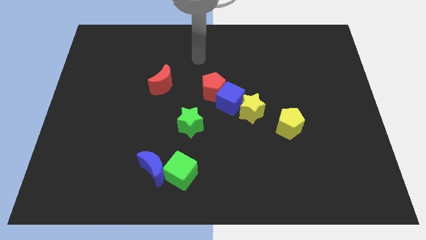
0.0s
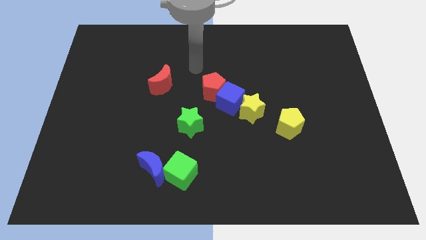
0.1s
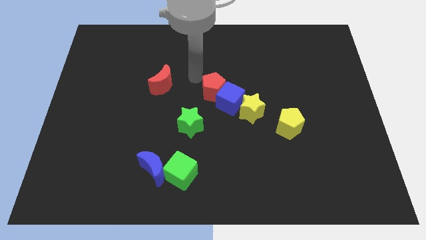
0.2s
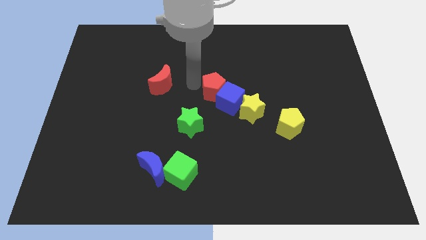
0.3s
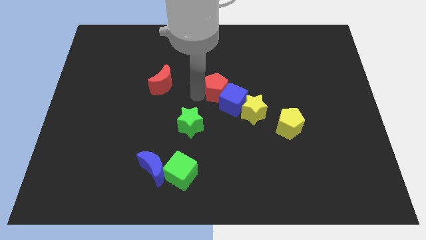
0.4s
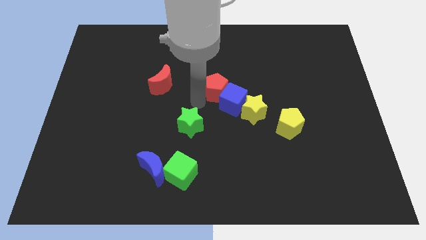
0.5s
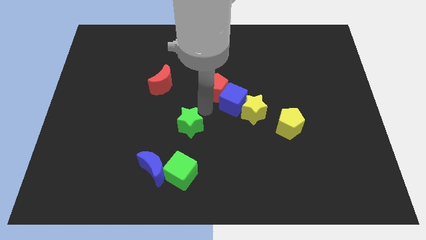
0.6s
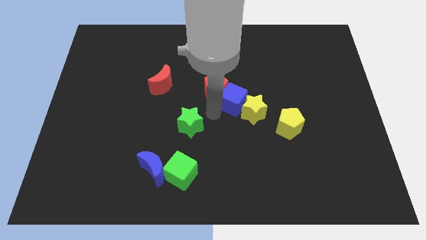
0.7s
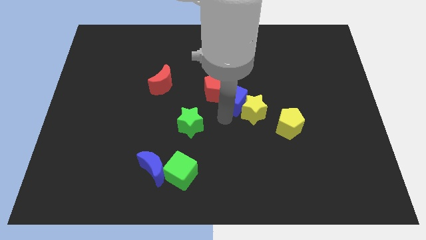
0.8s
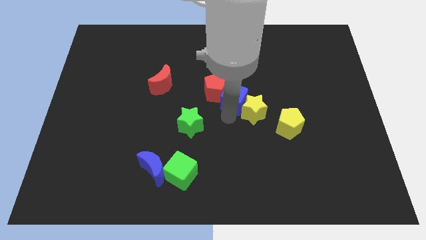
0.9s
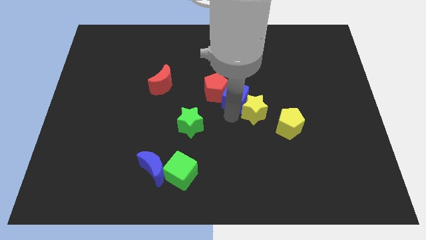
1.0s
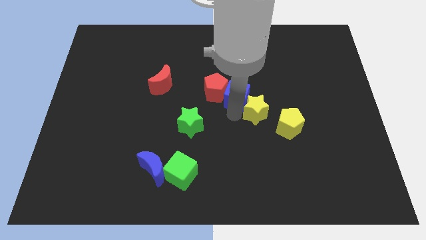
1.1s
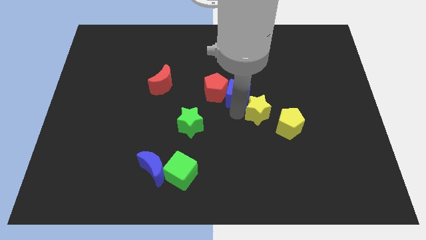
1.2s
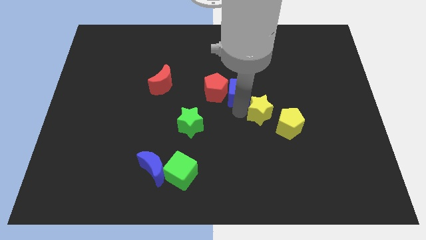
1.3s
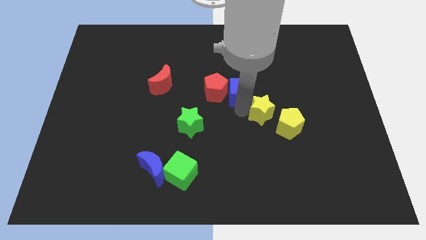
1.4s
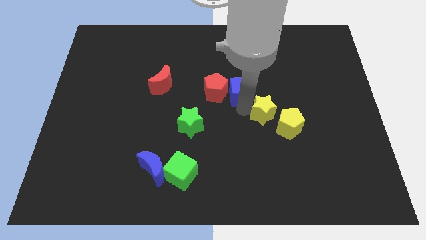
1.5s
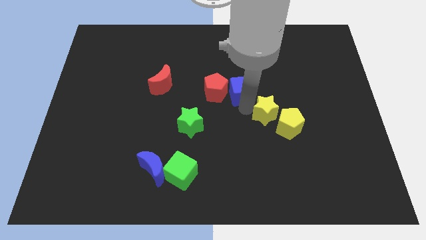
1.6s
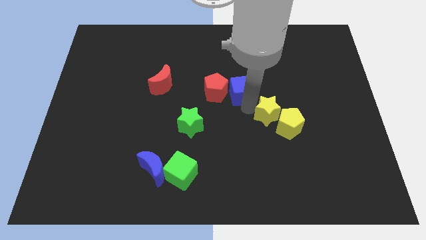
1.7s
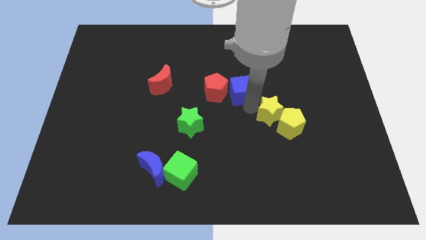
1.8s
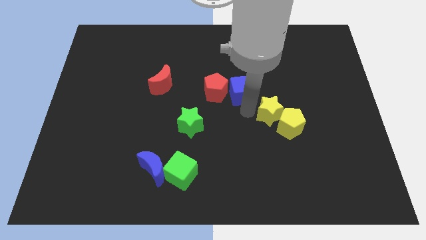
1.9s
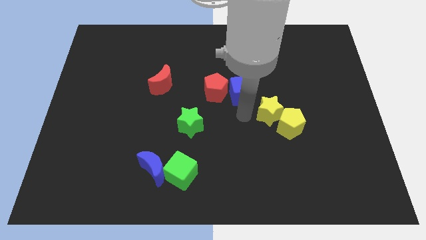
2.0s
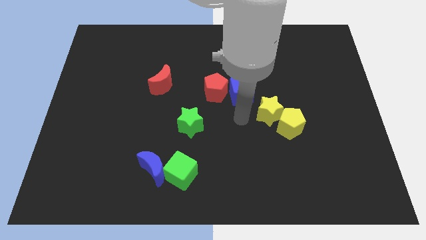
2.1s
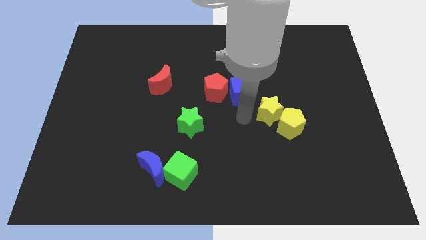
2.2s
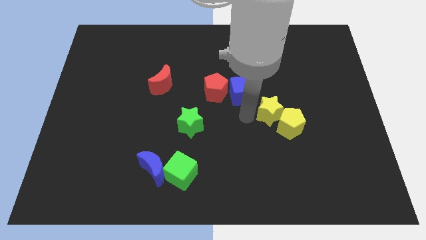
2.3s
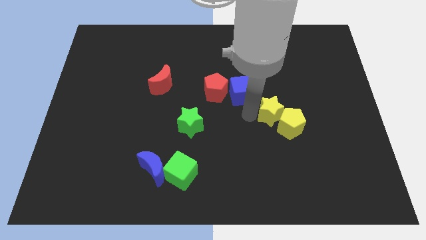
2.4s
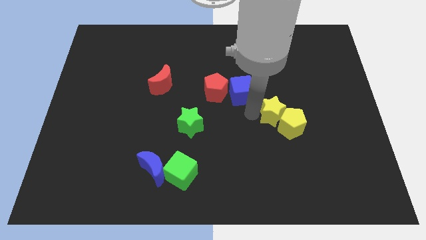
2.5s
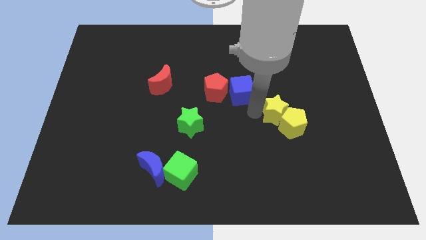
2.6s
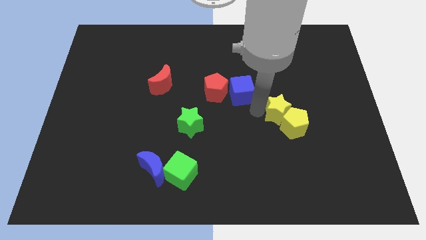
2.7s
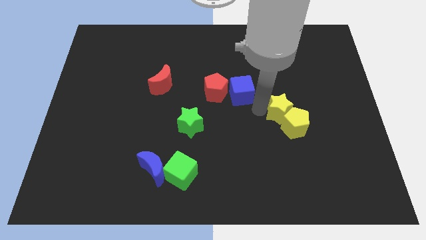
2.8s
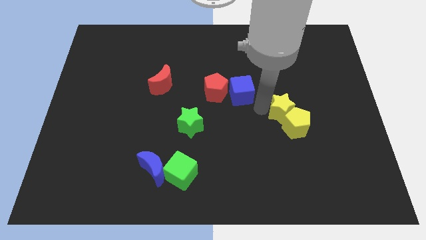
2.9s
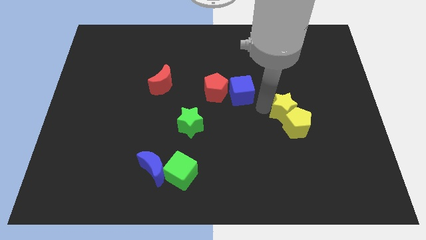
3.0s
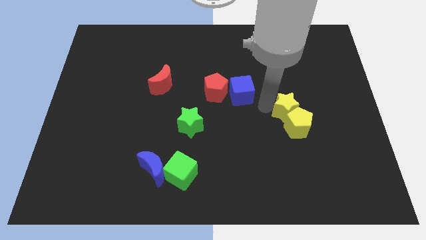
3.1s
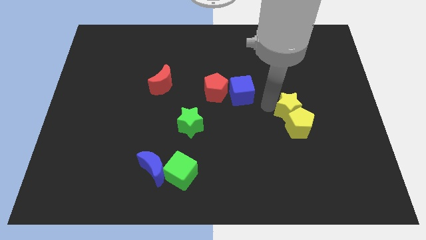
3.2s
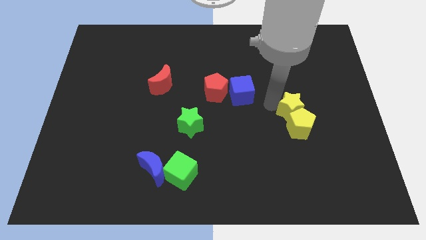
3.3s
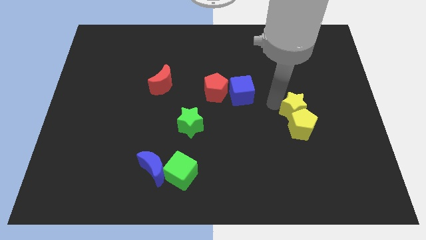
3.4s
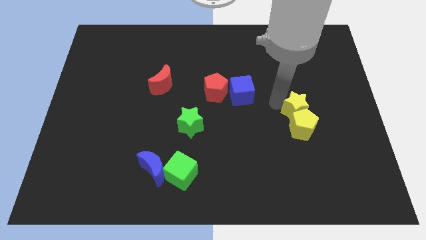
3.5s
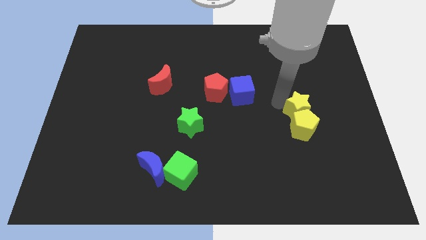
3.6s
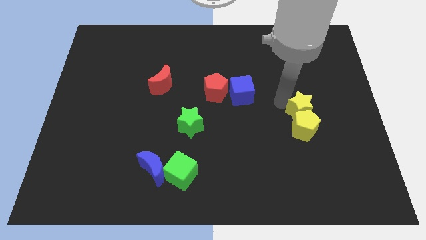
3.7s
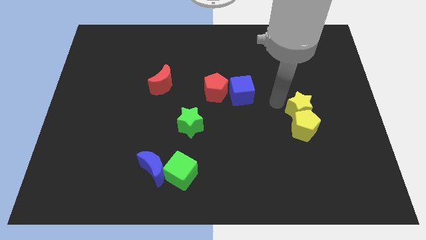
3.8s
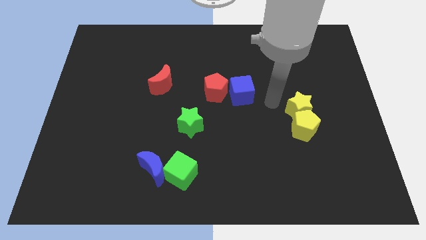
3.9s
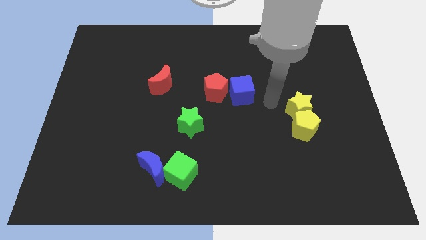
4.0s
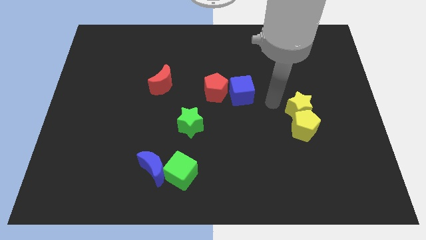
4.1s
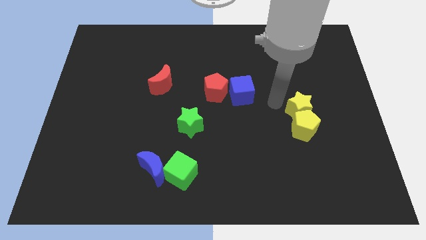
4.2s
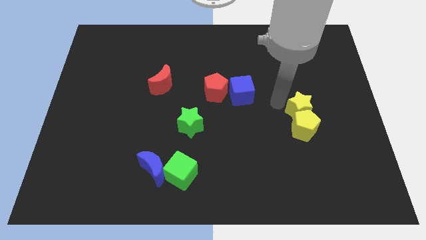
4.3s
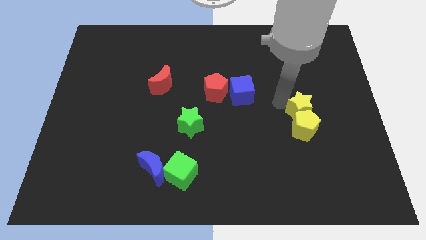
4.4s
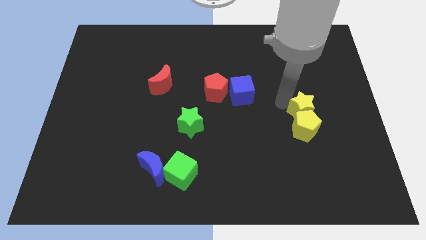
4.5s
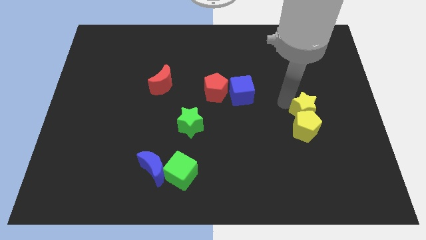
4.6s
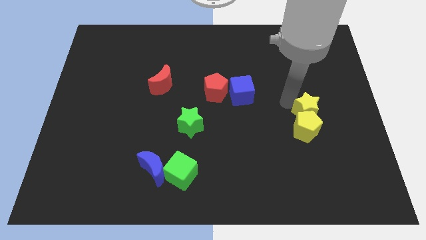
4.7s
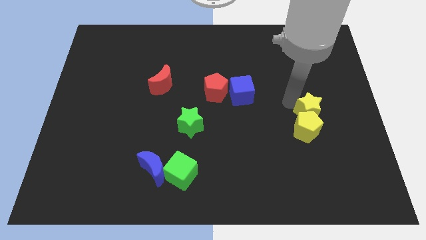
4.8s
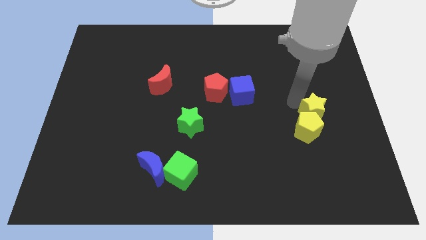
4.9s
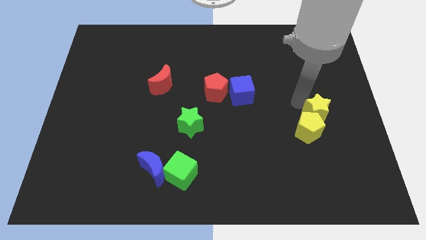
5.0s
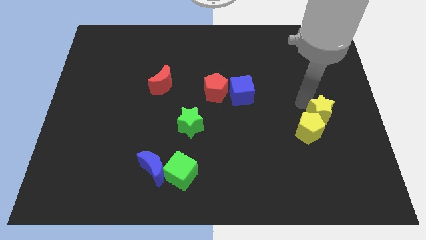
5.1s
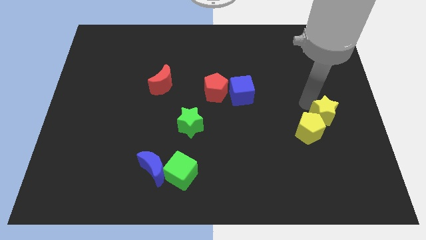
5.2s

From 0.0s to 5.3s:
push the yellow star to the right of the yellow pentagon

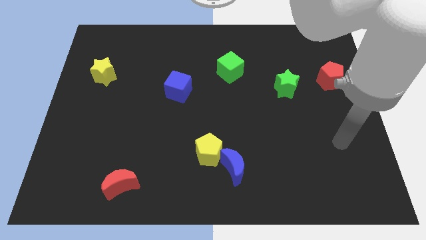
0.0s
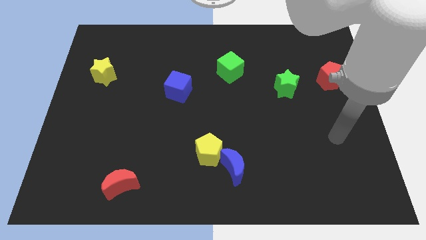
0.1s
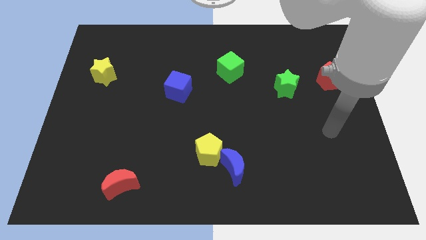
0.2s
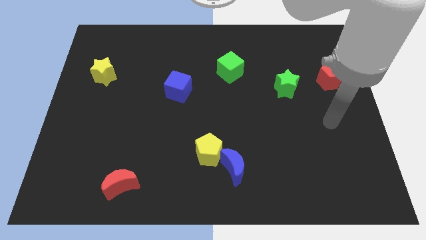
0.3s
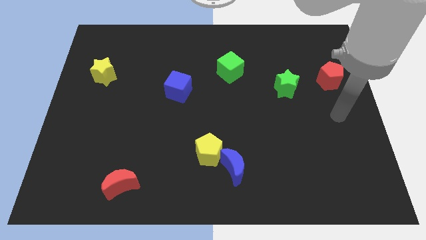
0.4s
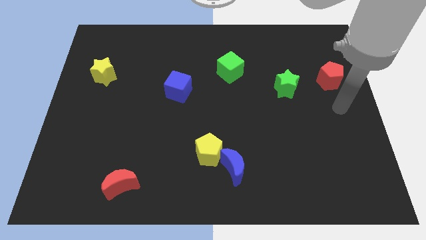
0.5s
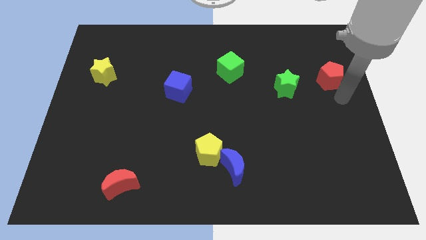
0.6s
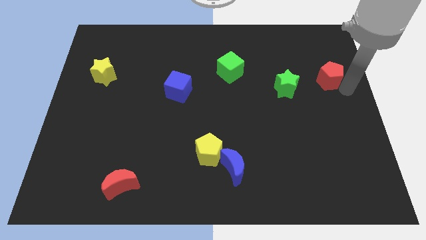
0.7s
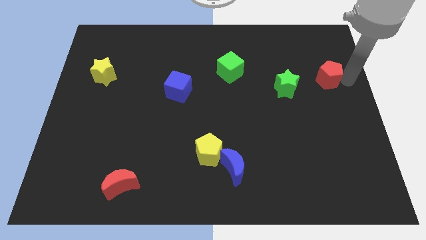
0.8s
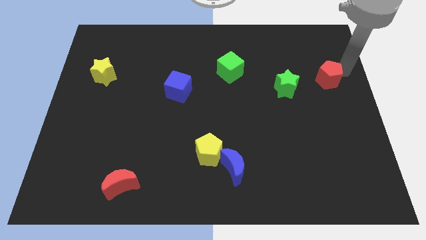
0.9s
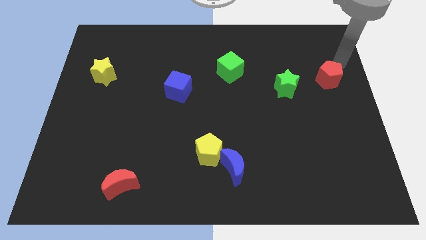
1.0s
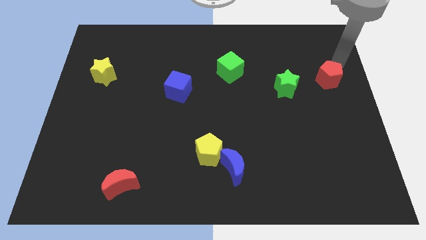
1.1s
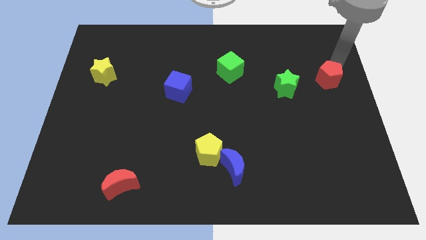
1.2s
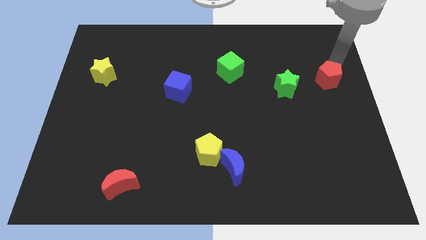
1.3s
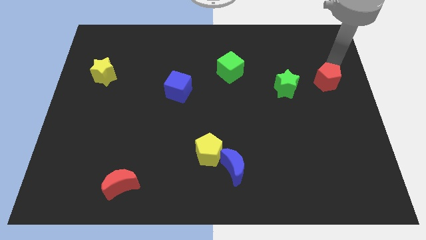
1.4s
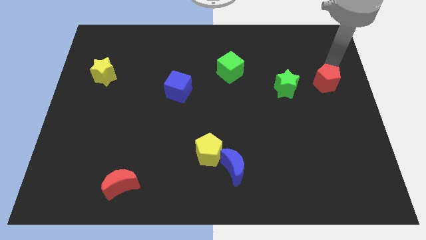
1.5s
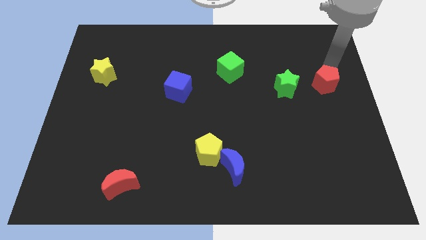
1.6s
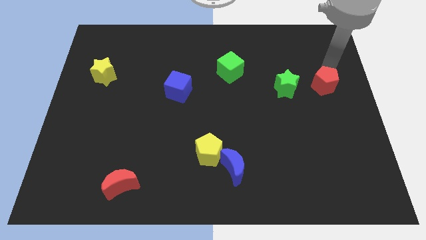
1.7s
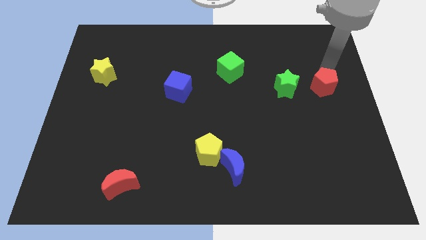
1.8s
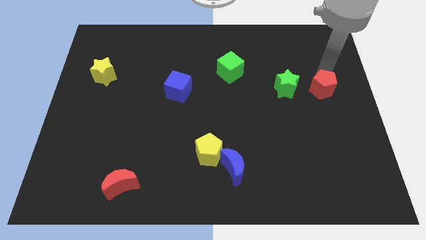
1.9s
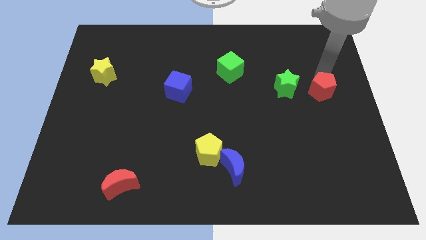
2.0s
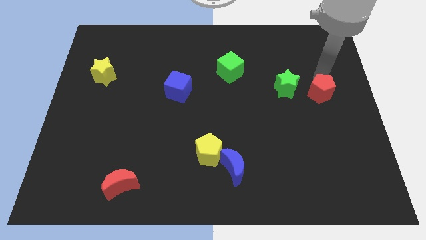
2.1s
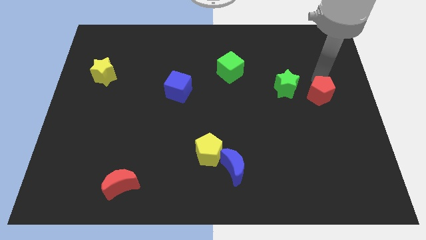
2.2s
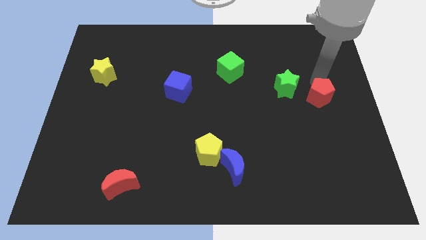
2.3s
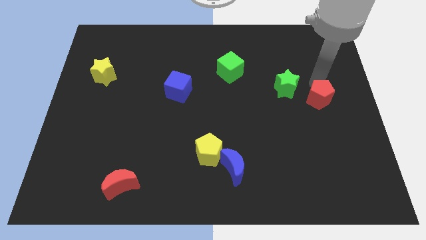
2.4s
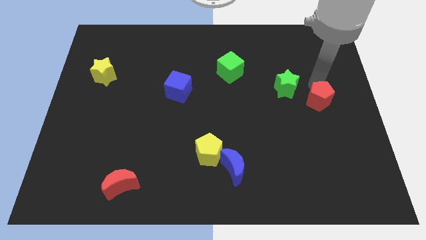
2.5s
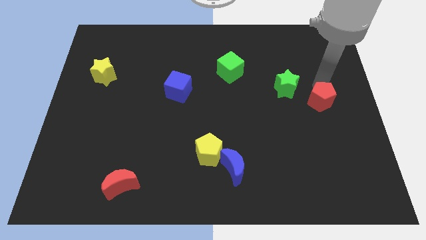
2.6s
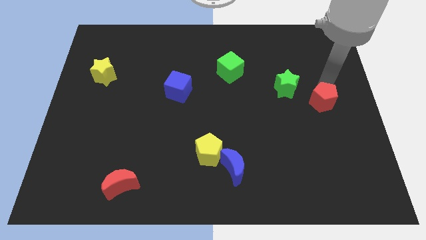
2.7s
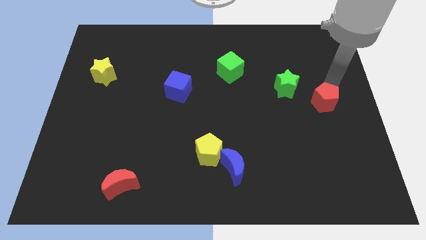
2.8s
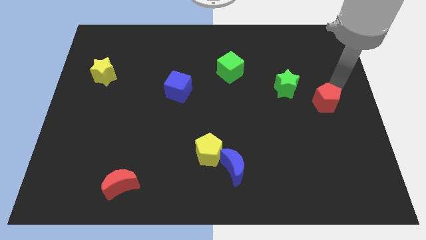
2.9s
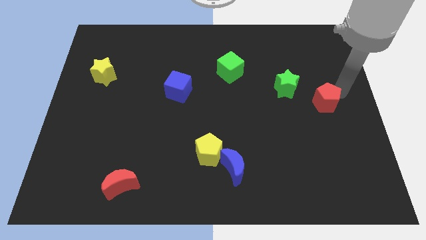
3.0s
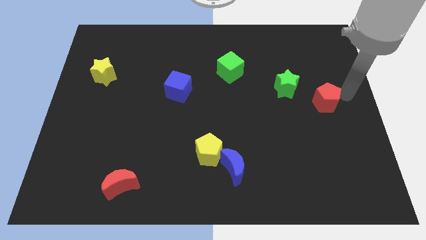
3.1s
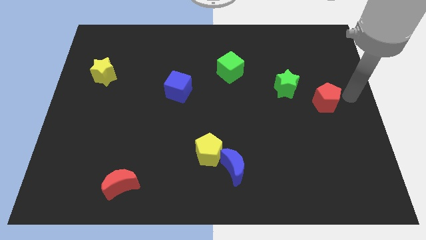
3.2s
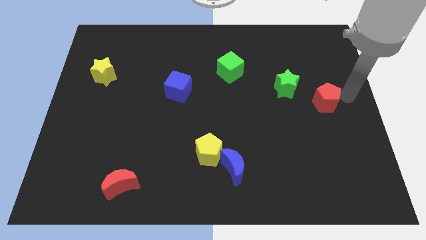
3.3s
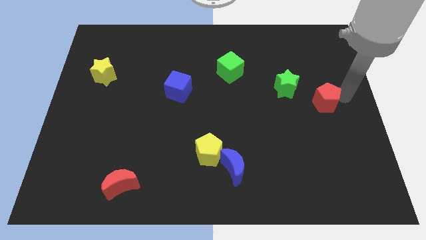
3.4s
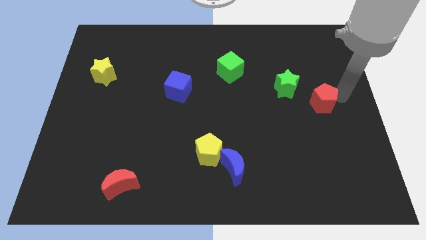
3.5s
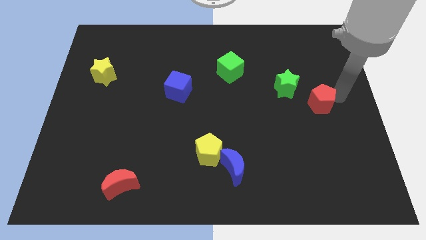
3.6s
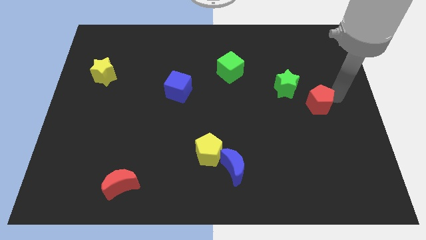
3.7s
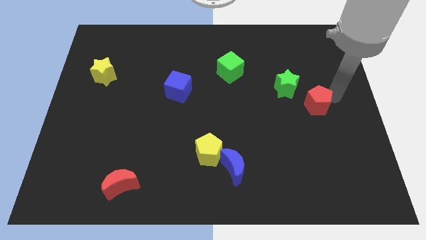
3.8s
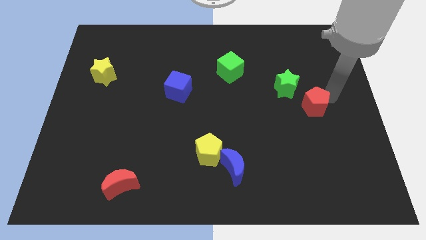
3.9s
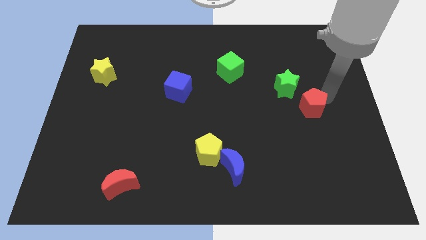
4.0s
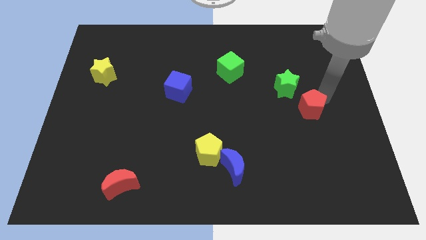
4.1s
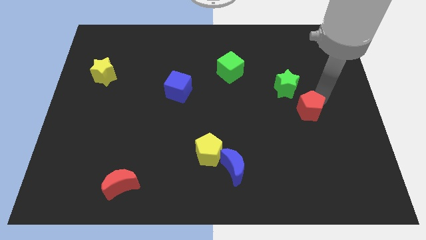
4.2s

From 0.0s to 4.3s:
move the red pentagon to the bottom side of the green star
